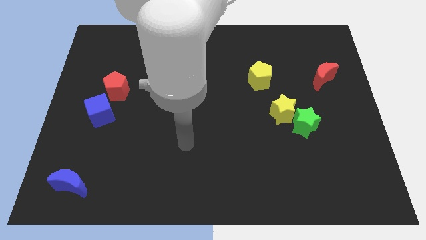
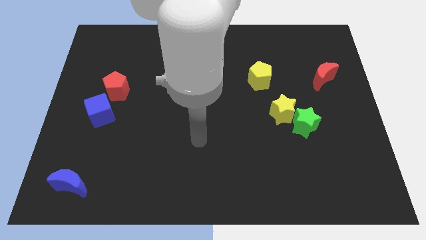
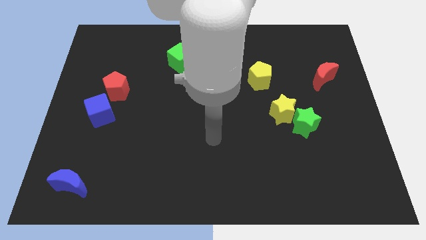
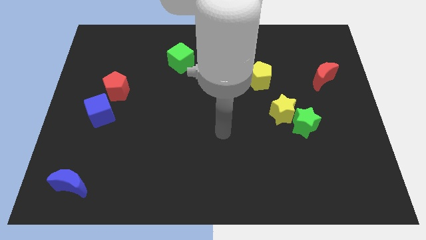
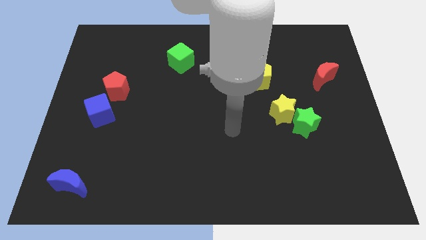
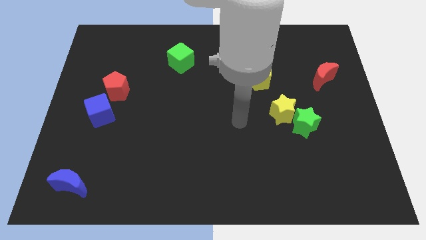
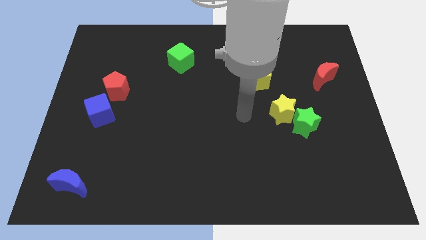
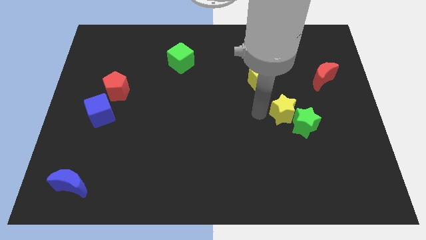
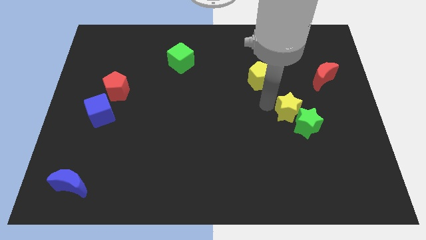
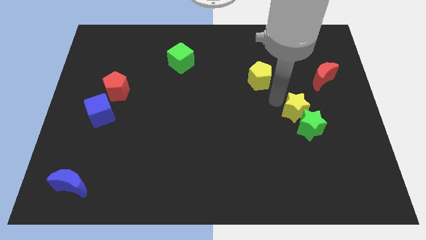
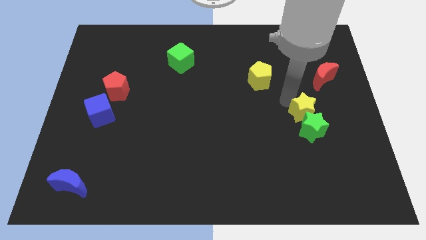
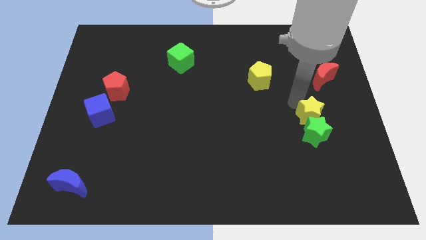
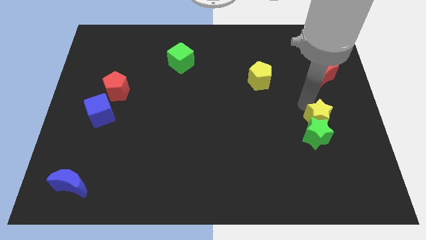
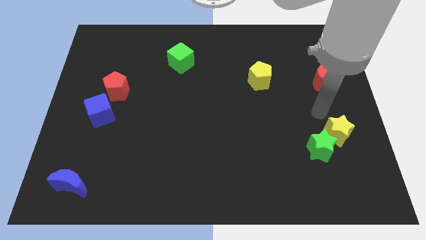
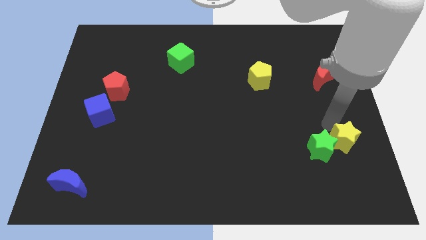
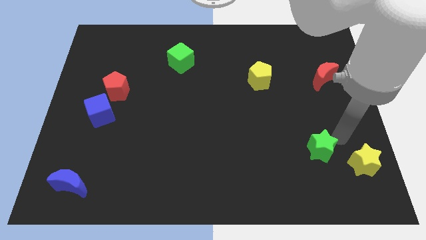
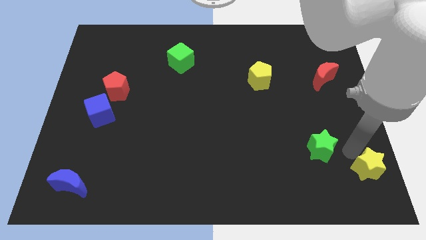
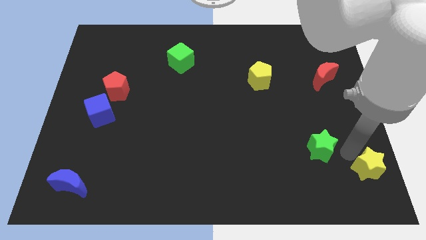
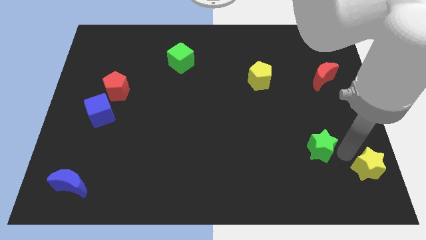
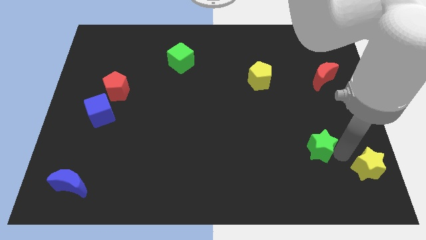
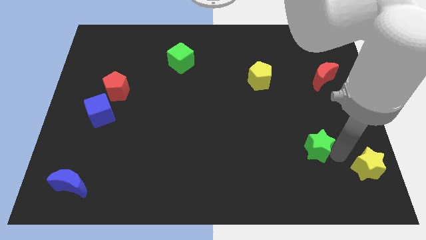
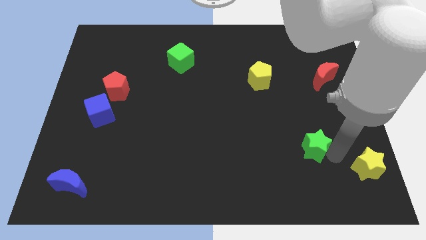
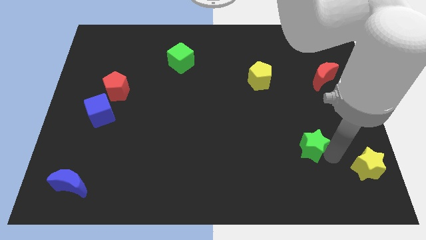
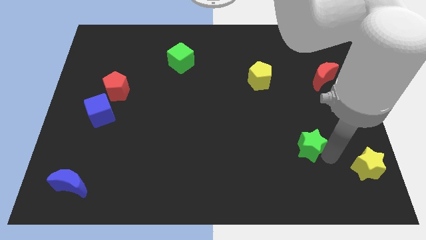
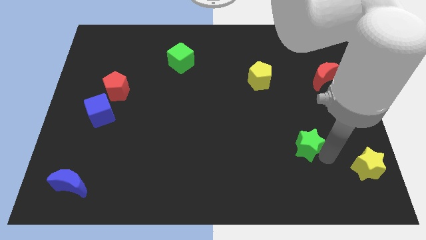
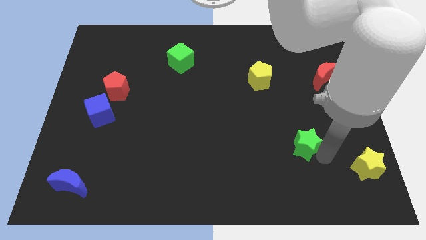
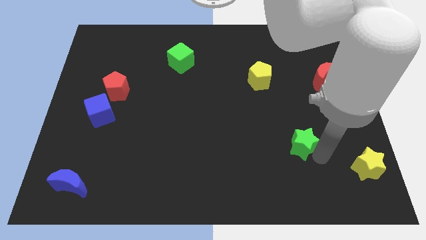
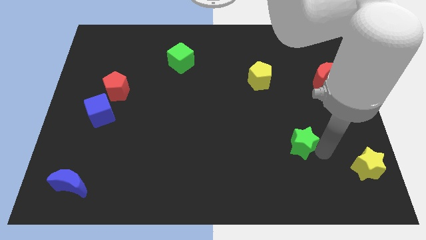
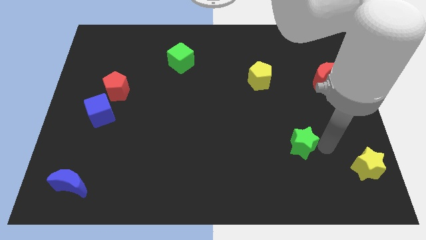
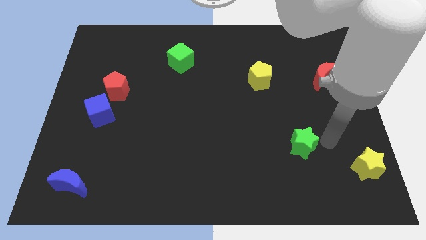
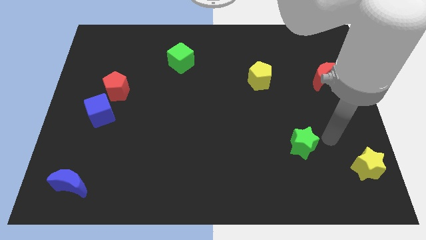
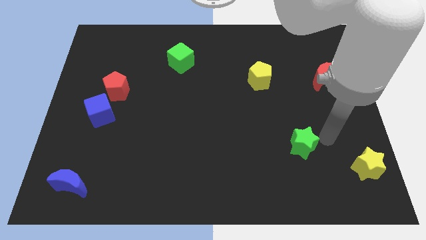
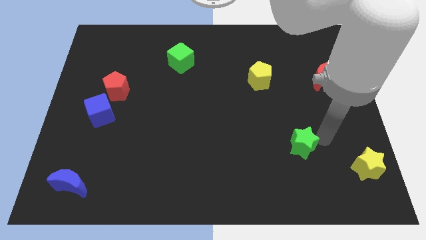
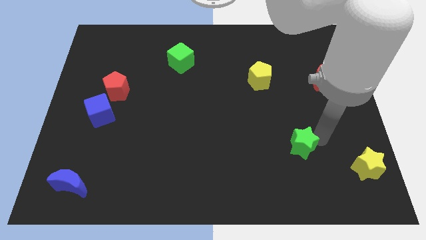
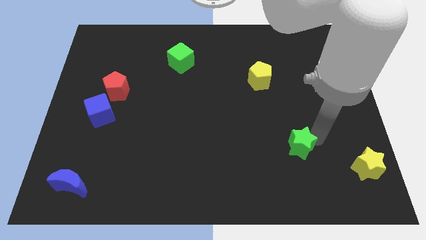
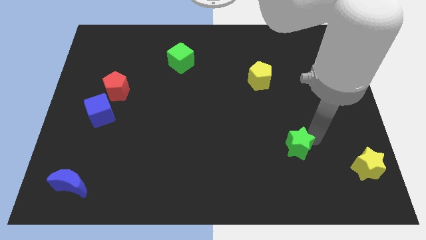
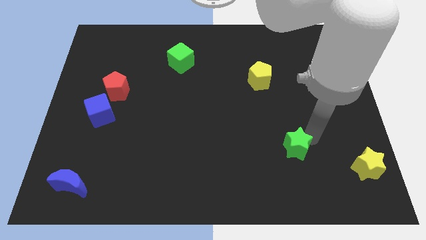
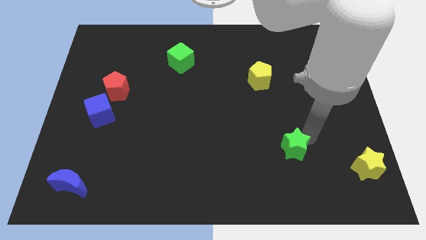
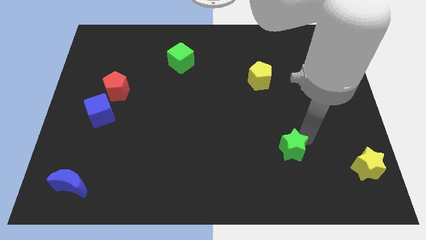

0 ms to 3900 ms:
push the green star down and then to the left a bit

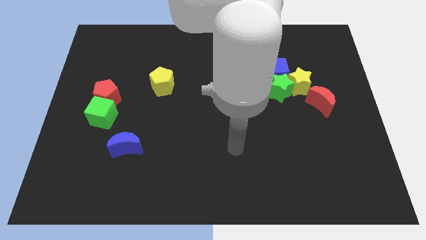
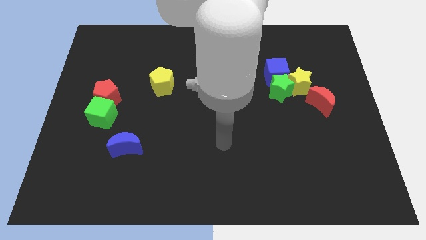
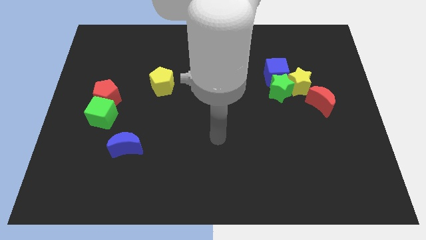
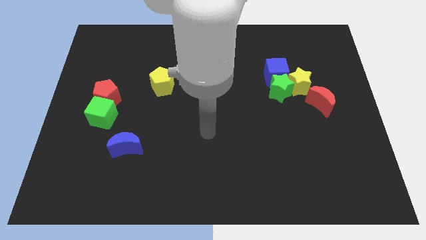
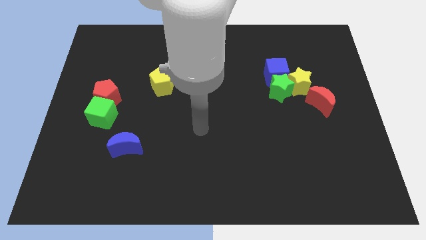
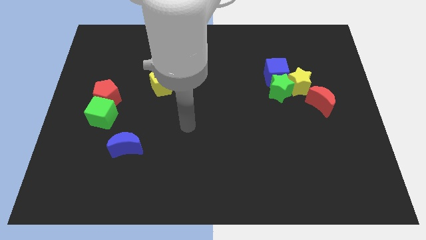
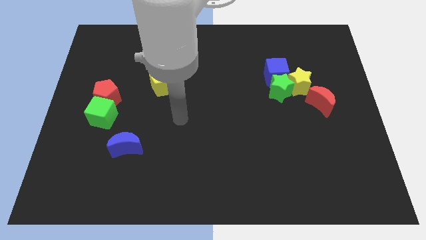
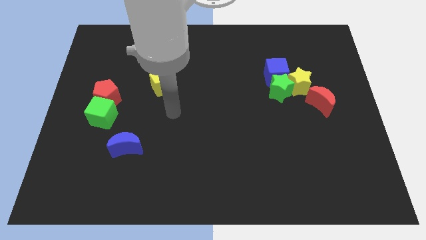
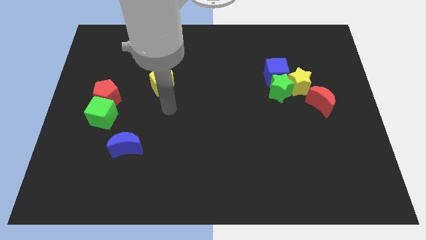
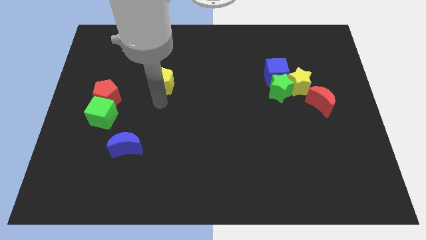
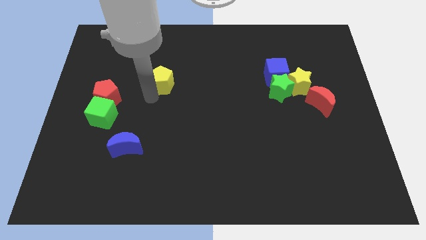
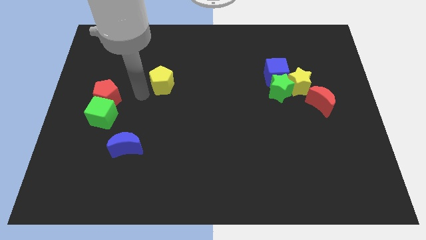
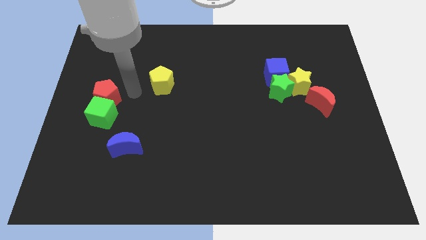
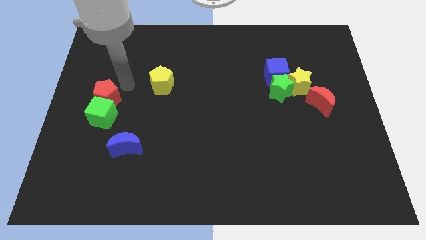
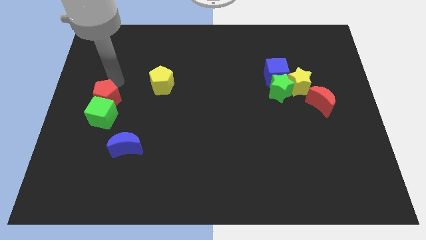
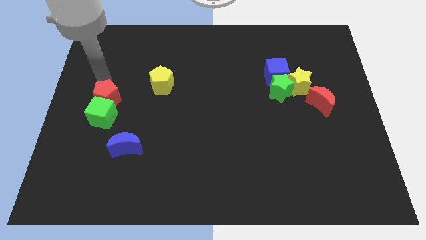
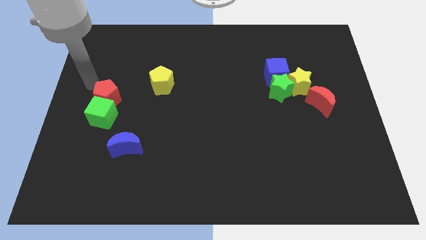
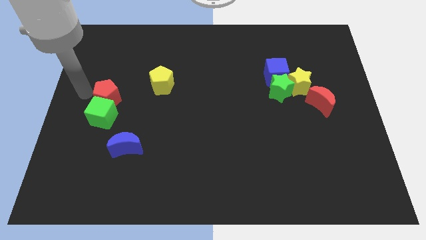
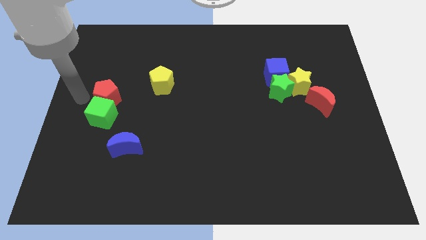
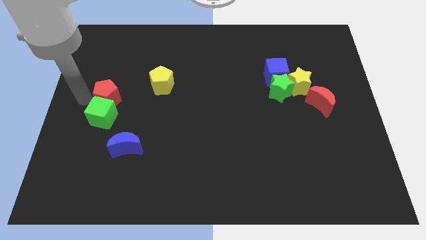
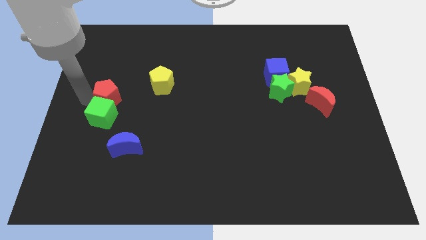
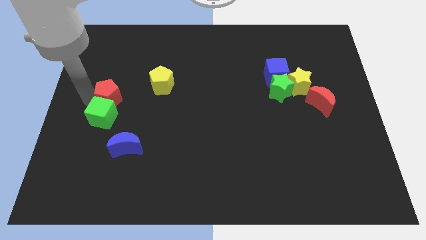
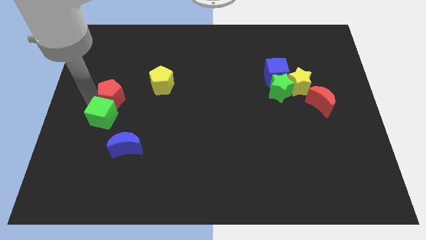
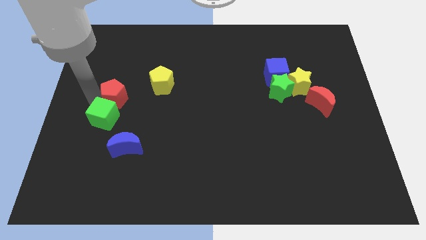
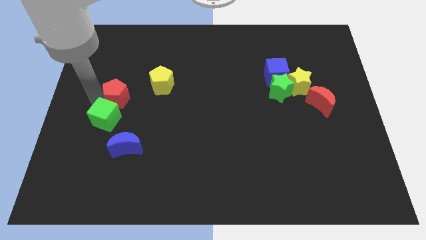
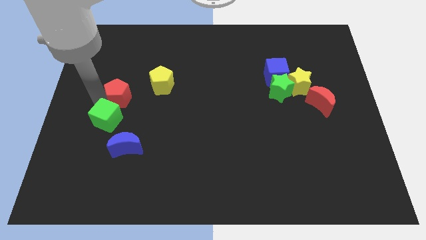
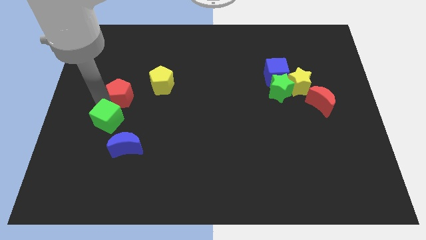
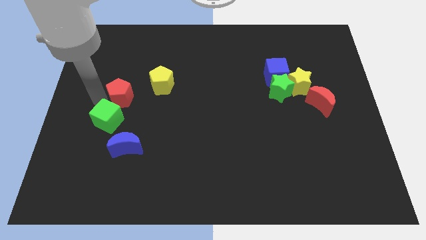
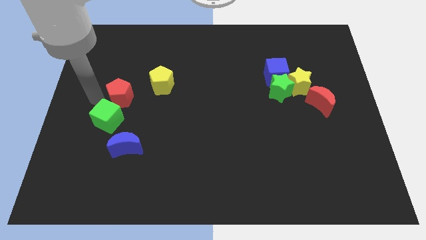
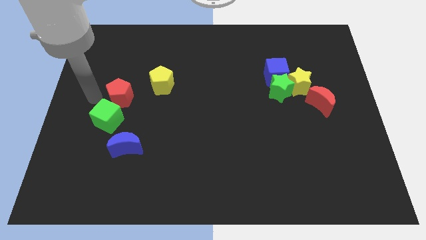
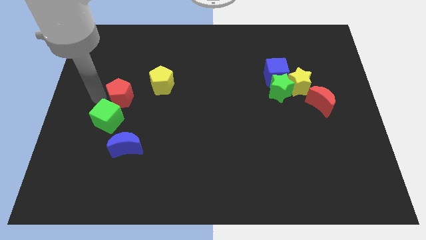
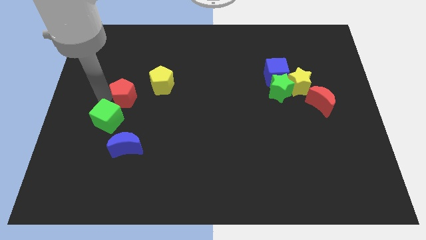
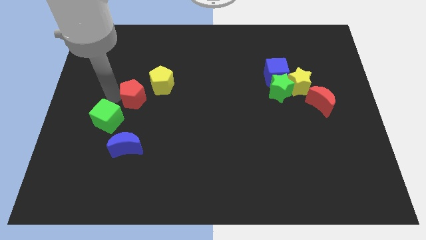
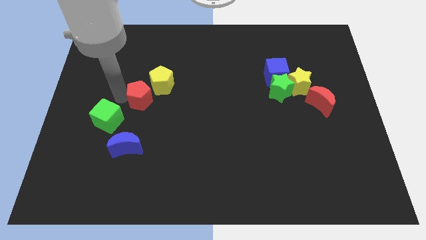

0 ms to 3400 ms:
slightly move the red pentagon right

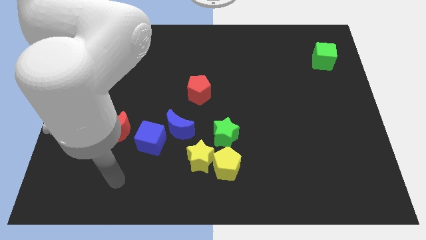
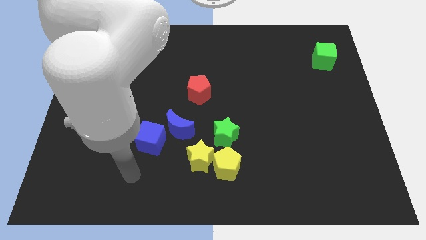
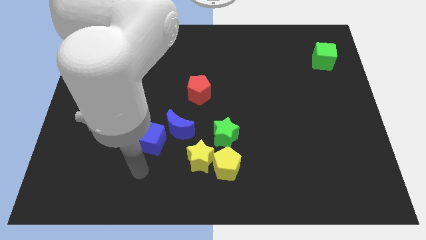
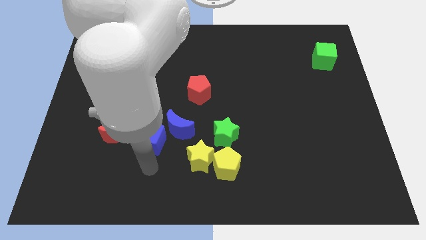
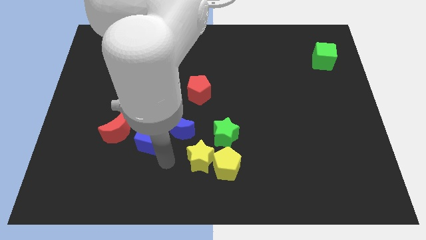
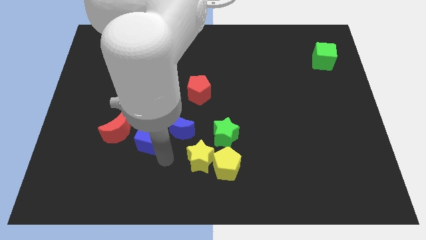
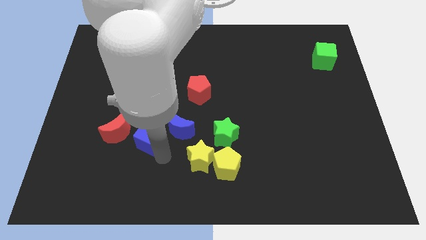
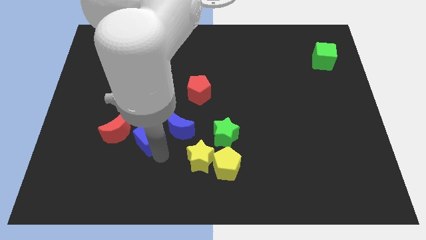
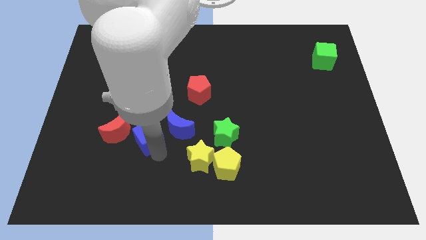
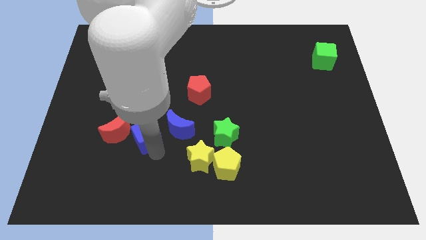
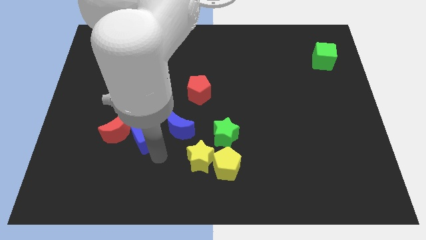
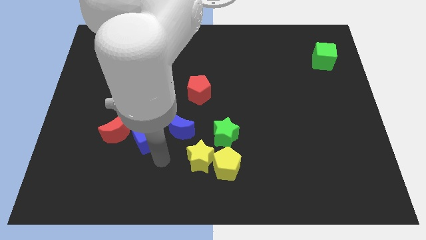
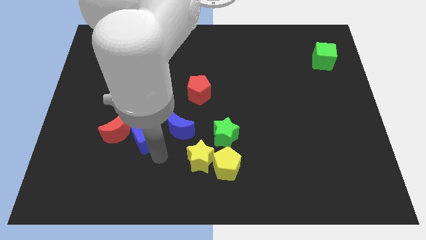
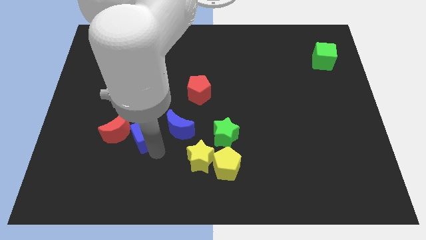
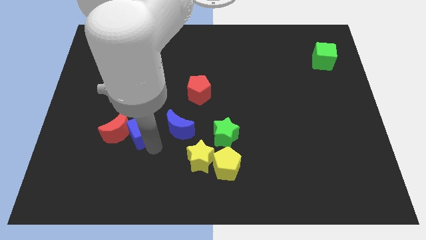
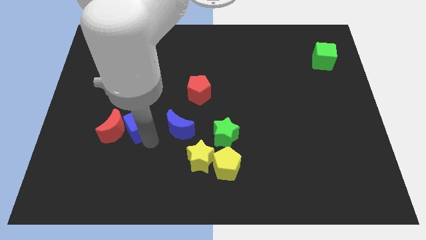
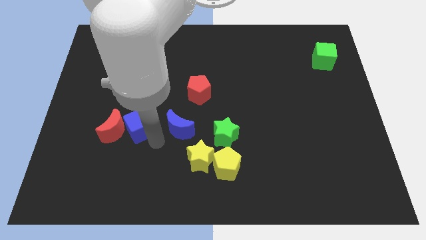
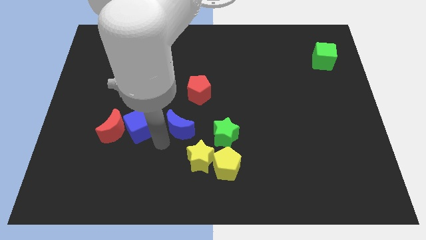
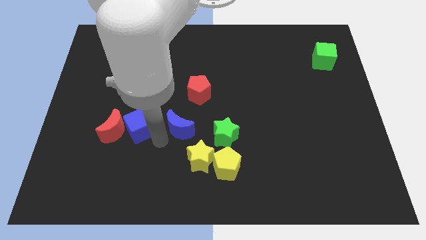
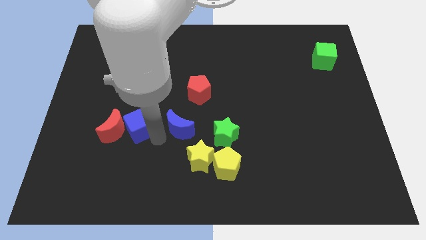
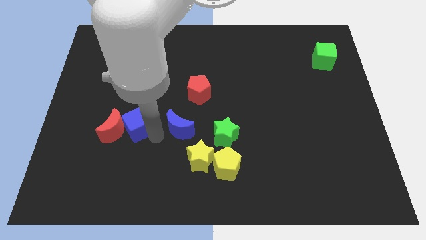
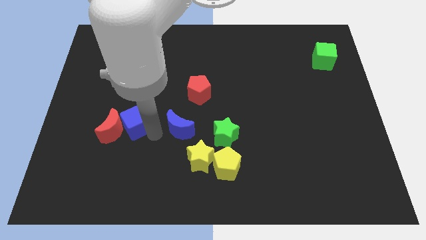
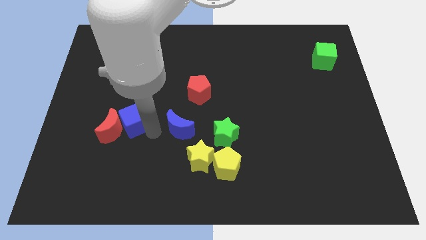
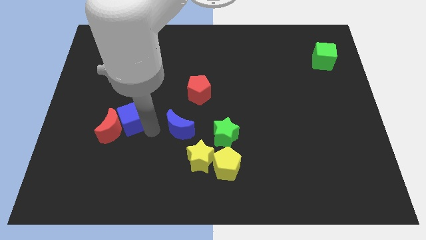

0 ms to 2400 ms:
slide the blue cube diagonally up and to the left slightly
